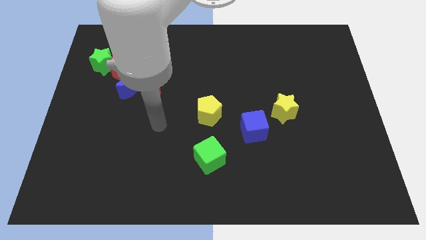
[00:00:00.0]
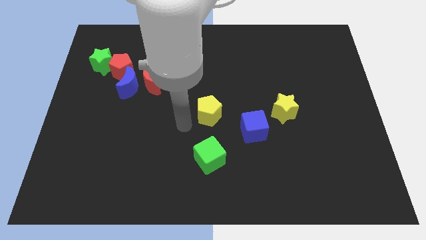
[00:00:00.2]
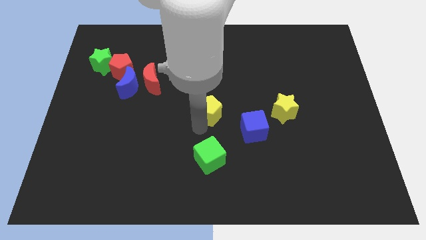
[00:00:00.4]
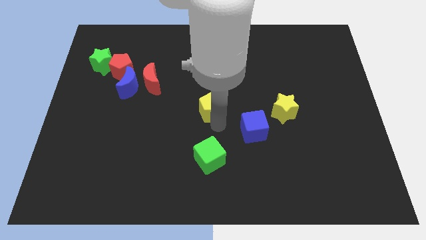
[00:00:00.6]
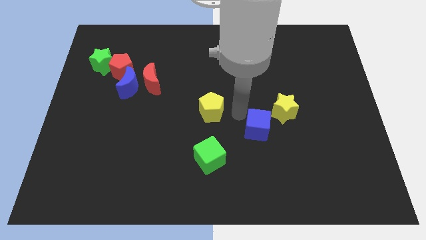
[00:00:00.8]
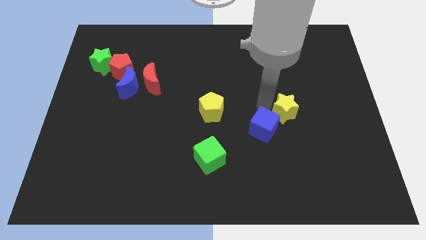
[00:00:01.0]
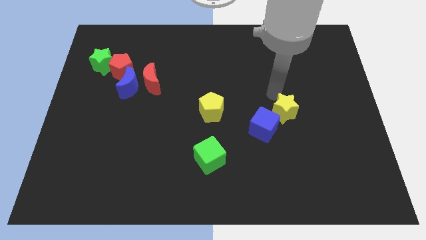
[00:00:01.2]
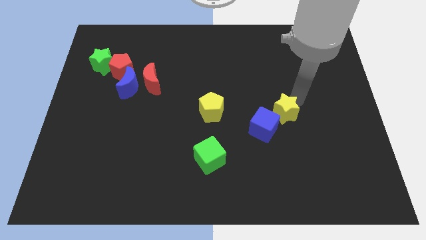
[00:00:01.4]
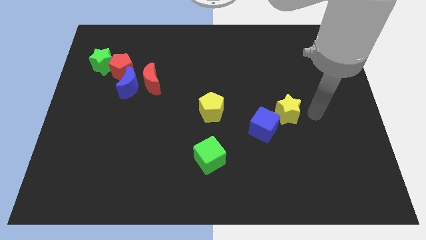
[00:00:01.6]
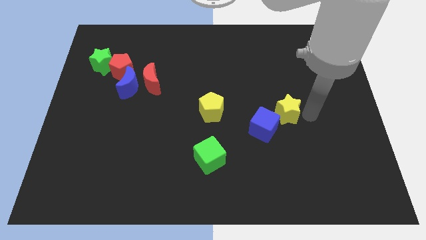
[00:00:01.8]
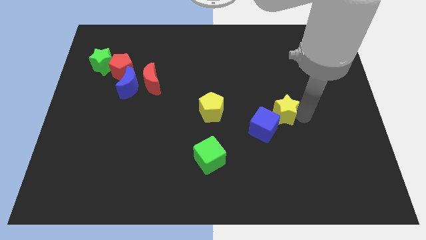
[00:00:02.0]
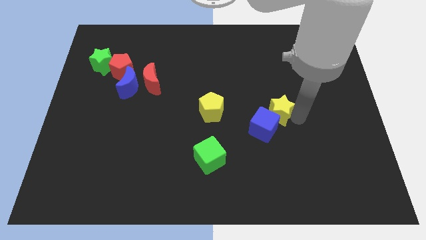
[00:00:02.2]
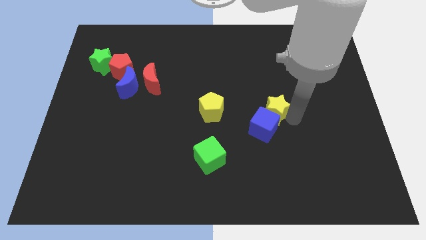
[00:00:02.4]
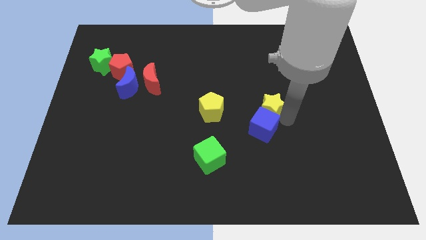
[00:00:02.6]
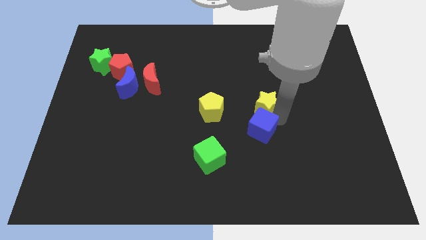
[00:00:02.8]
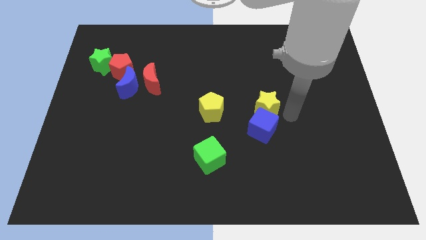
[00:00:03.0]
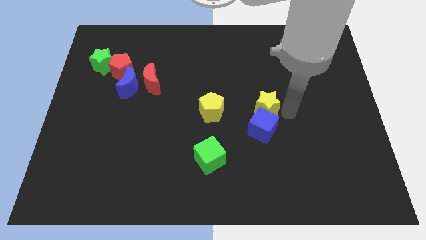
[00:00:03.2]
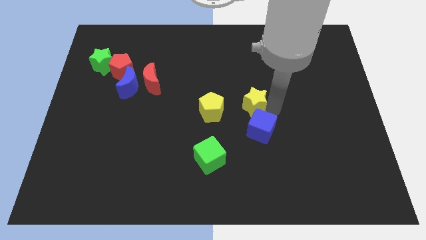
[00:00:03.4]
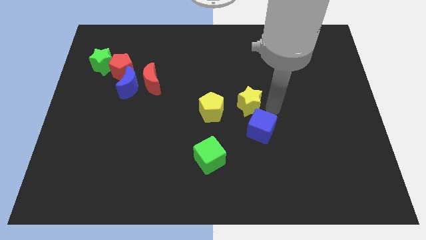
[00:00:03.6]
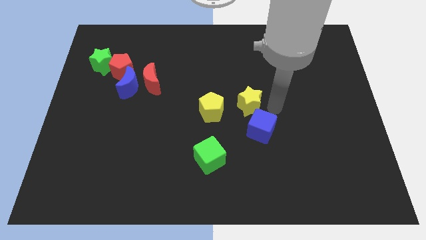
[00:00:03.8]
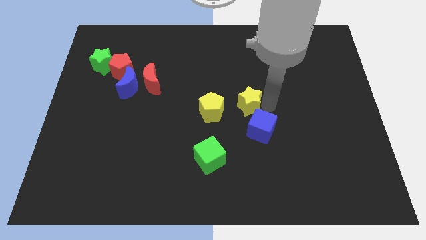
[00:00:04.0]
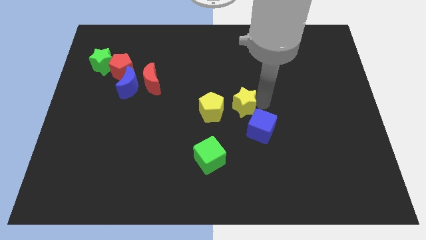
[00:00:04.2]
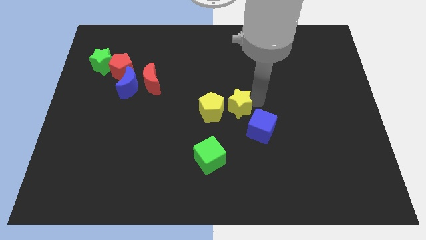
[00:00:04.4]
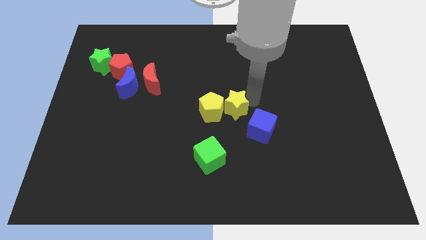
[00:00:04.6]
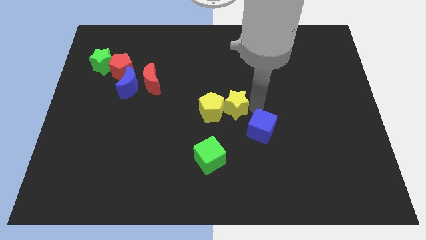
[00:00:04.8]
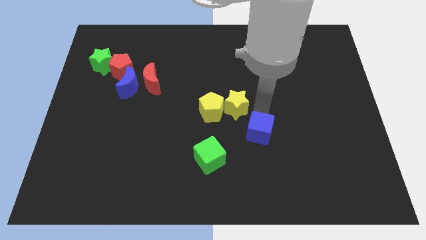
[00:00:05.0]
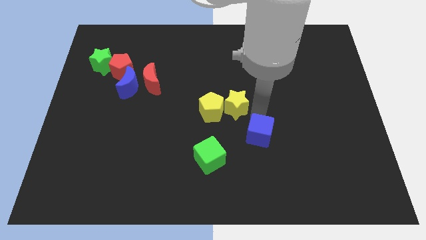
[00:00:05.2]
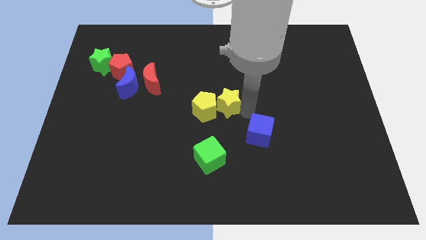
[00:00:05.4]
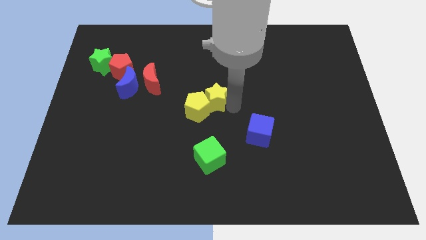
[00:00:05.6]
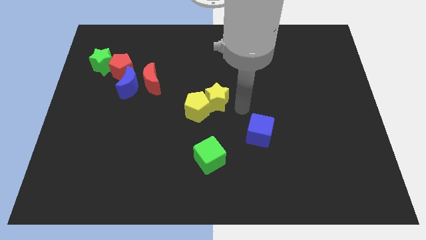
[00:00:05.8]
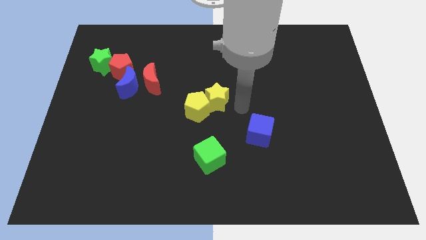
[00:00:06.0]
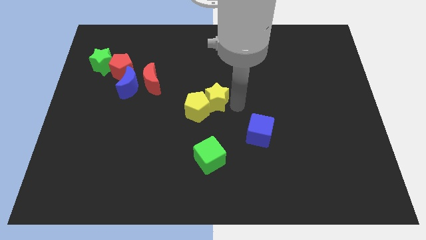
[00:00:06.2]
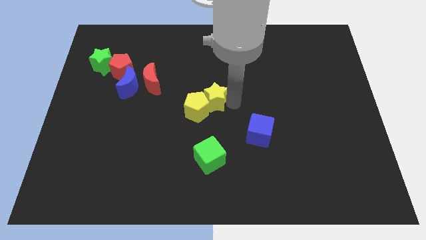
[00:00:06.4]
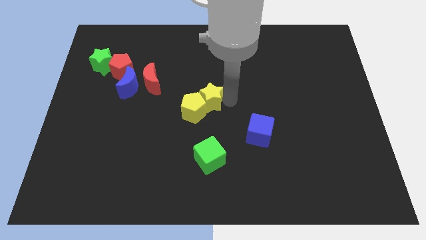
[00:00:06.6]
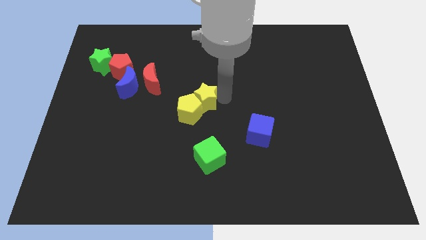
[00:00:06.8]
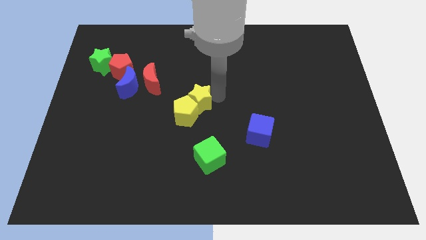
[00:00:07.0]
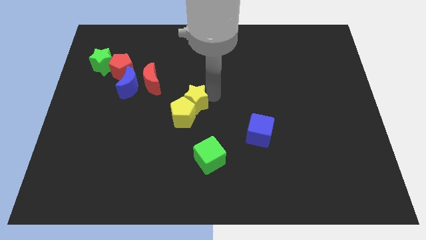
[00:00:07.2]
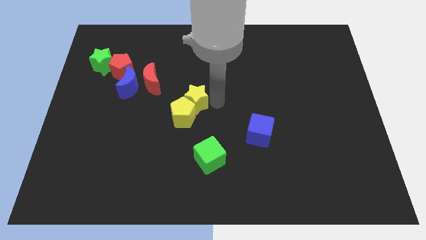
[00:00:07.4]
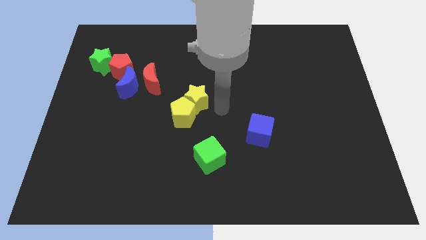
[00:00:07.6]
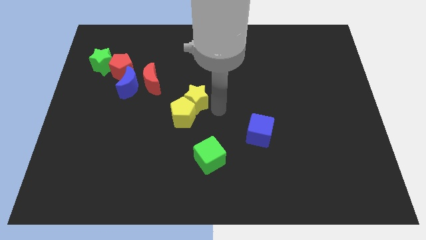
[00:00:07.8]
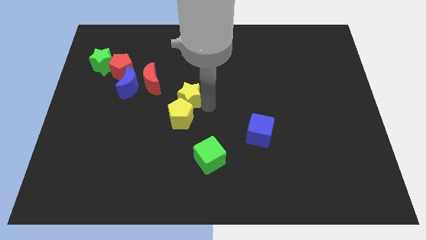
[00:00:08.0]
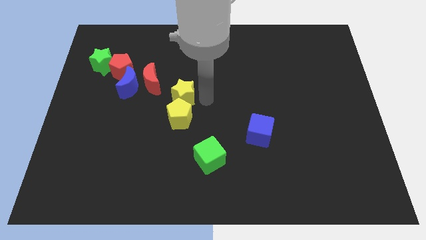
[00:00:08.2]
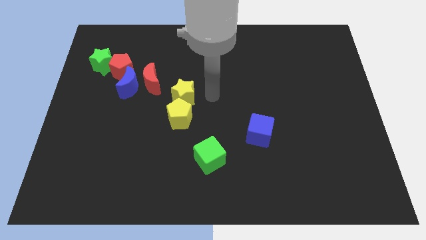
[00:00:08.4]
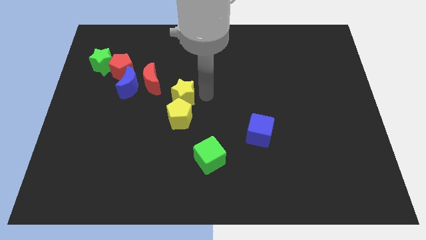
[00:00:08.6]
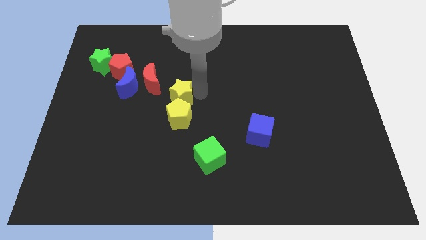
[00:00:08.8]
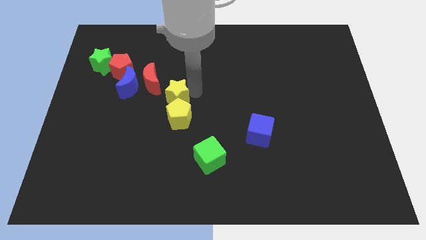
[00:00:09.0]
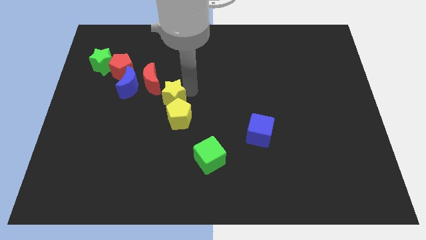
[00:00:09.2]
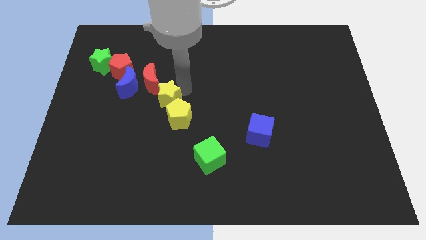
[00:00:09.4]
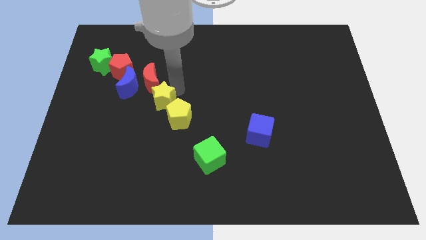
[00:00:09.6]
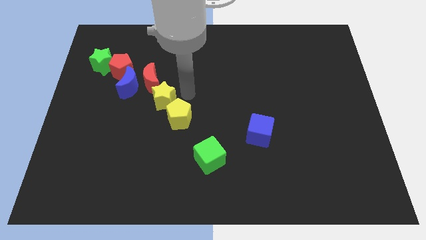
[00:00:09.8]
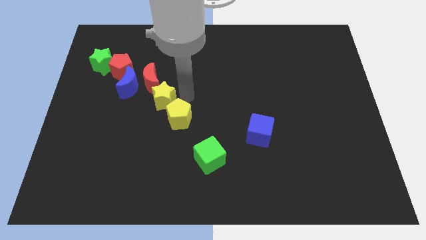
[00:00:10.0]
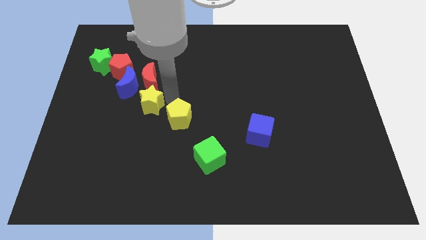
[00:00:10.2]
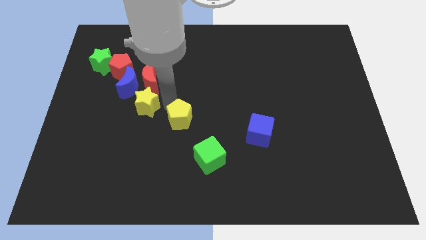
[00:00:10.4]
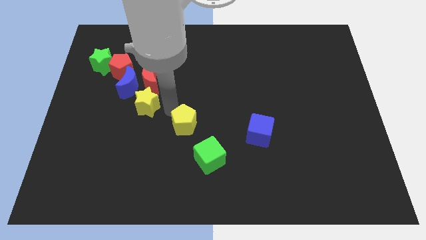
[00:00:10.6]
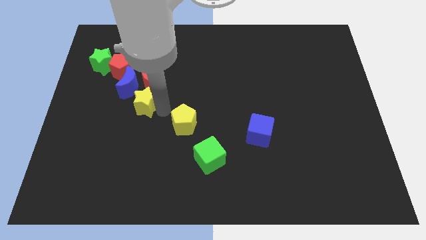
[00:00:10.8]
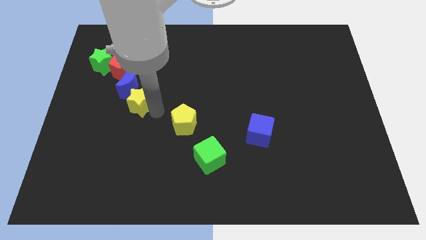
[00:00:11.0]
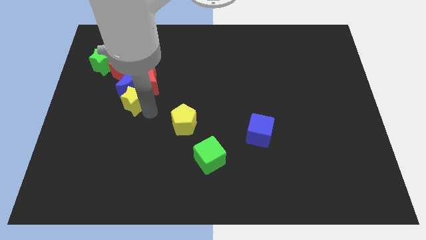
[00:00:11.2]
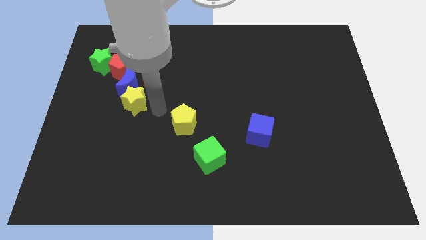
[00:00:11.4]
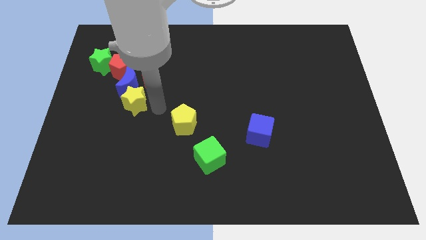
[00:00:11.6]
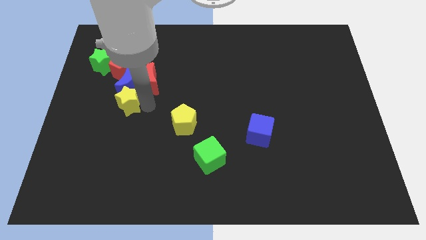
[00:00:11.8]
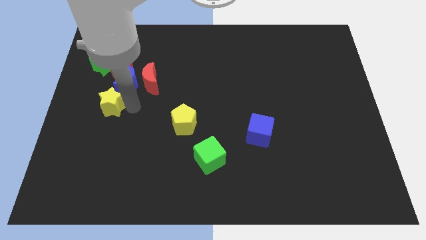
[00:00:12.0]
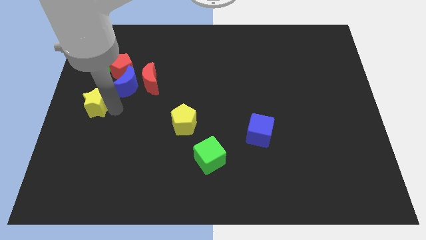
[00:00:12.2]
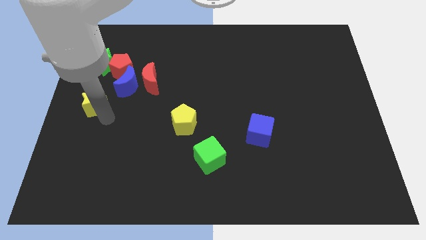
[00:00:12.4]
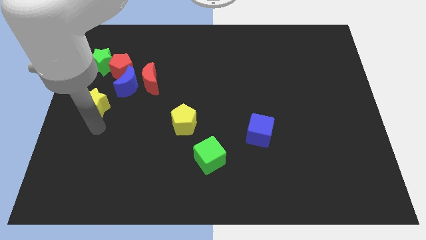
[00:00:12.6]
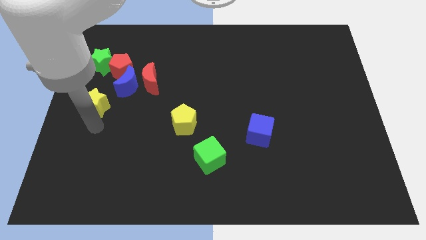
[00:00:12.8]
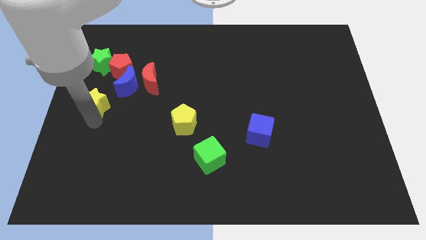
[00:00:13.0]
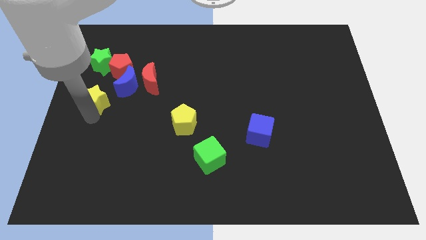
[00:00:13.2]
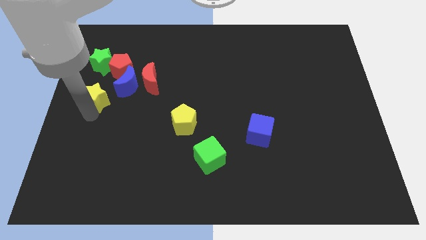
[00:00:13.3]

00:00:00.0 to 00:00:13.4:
slide the yellow star to the bottom left of the red pentagon
